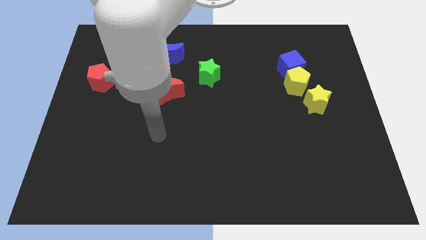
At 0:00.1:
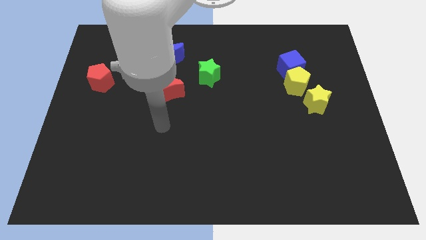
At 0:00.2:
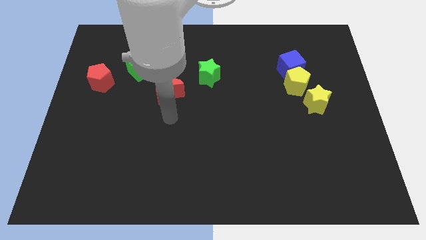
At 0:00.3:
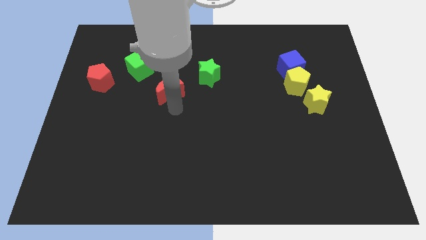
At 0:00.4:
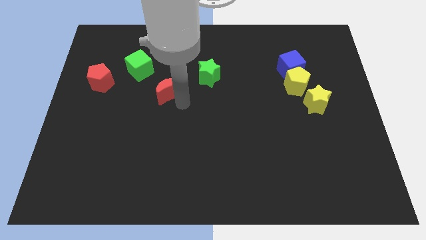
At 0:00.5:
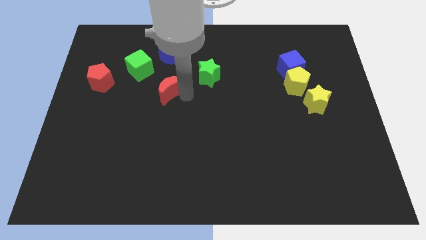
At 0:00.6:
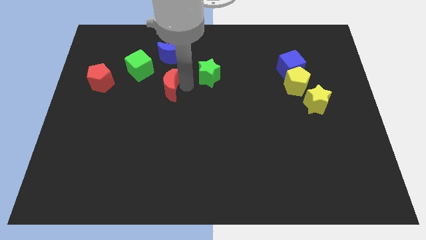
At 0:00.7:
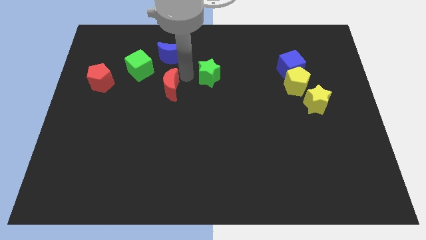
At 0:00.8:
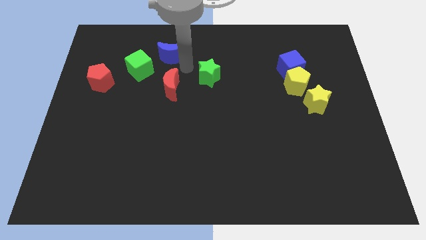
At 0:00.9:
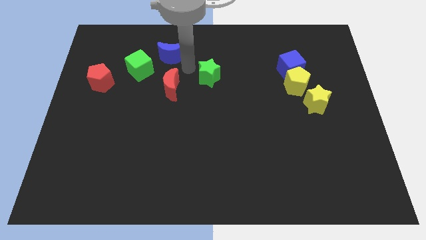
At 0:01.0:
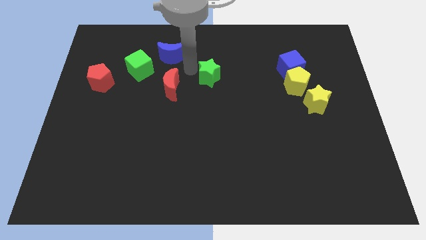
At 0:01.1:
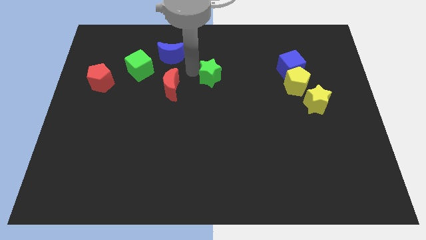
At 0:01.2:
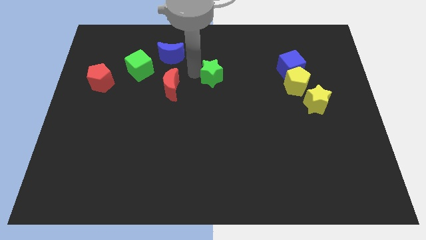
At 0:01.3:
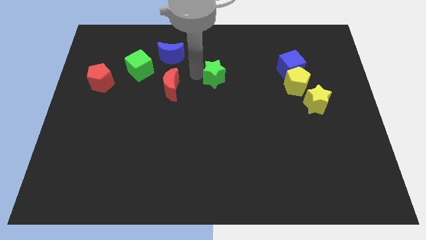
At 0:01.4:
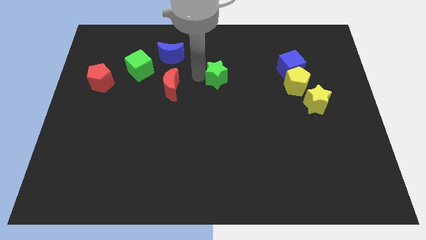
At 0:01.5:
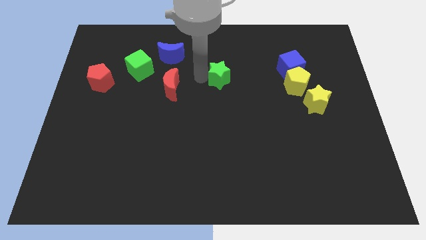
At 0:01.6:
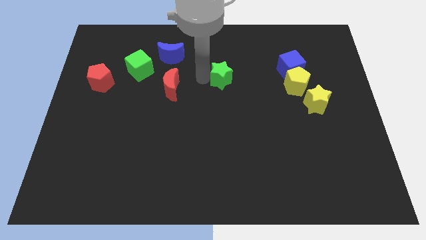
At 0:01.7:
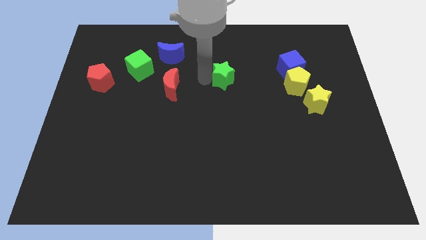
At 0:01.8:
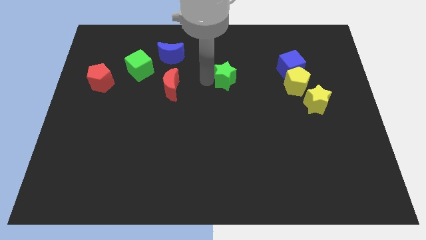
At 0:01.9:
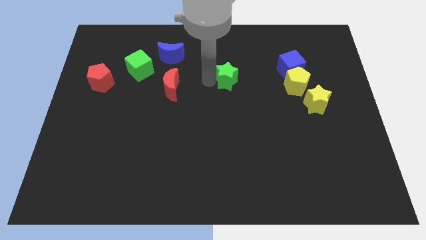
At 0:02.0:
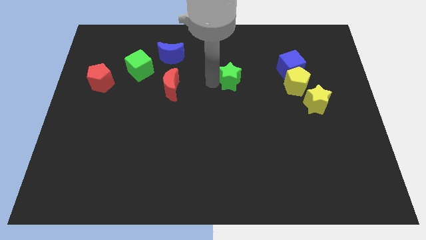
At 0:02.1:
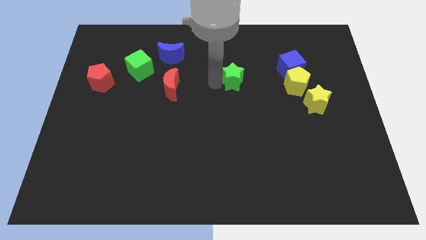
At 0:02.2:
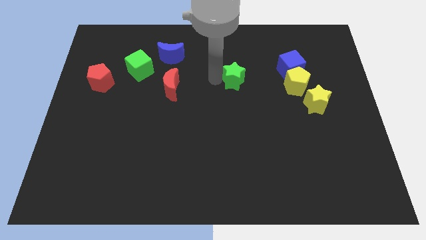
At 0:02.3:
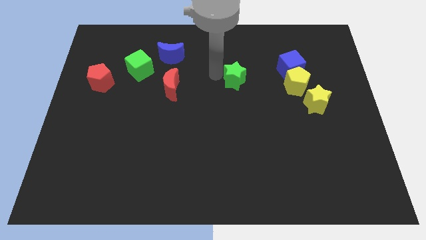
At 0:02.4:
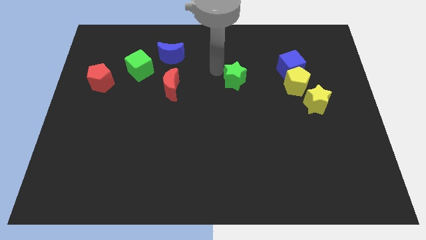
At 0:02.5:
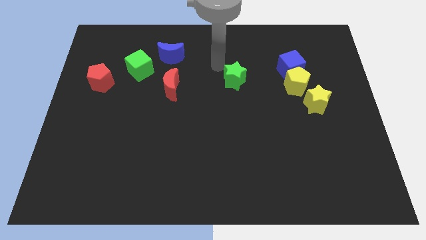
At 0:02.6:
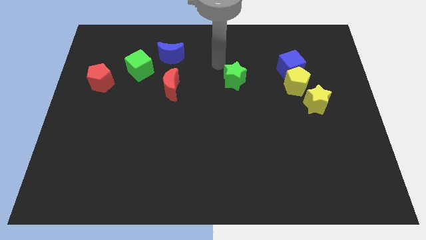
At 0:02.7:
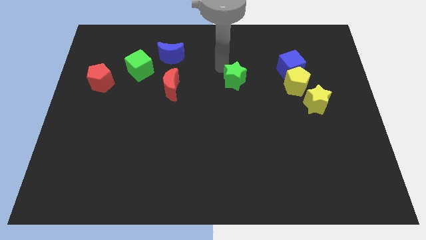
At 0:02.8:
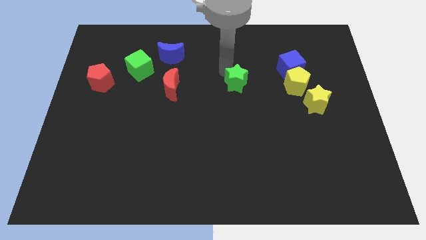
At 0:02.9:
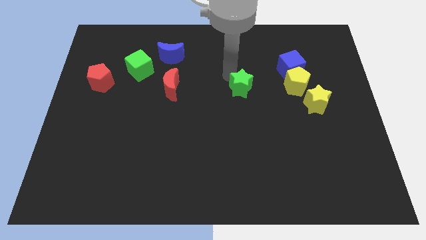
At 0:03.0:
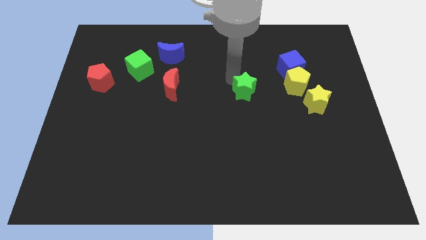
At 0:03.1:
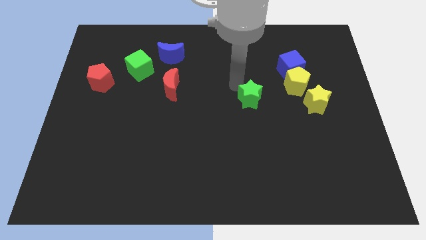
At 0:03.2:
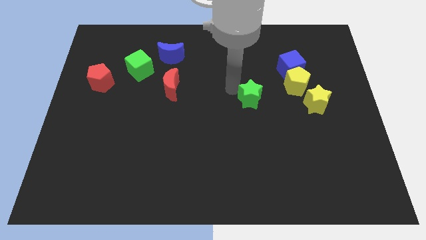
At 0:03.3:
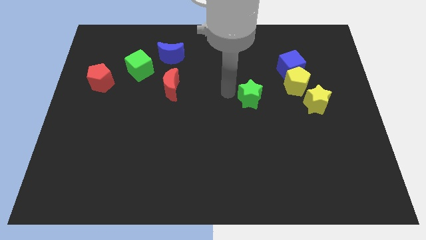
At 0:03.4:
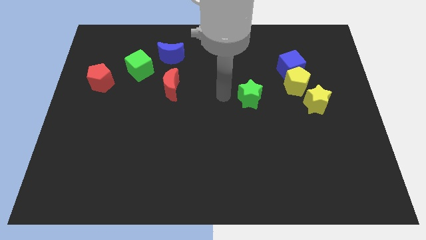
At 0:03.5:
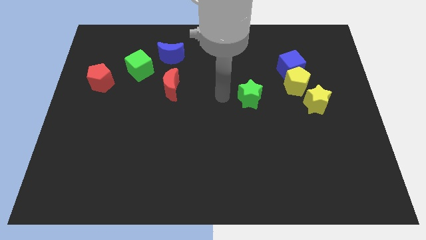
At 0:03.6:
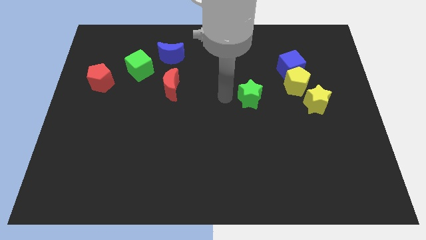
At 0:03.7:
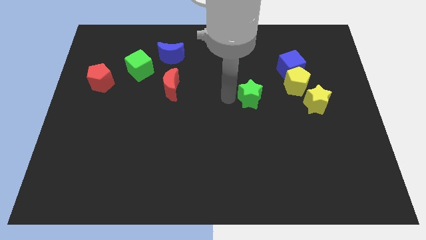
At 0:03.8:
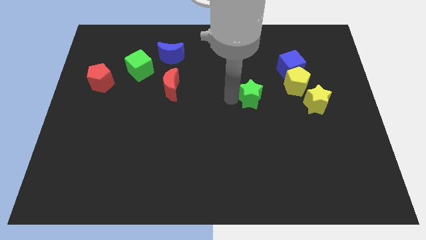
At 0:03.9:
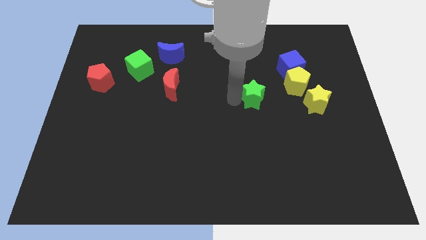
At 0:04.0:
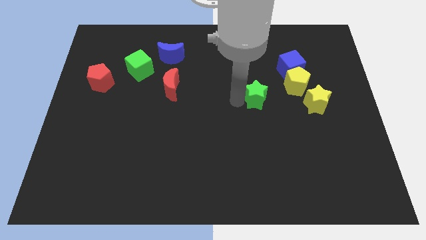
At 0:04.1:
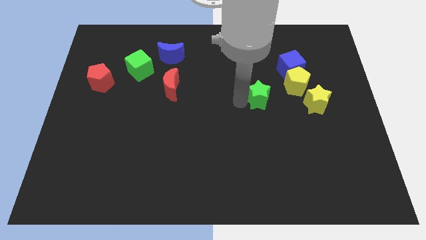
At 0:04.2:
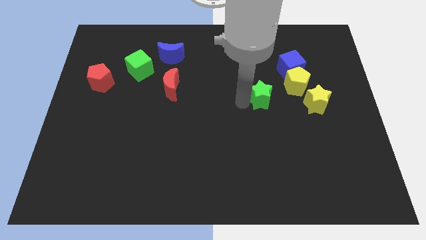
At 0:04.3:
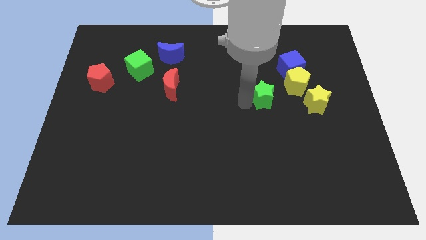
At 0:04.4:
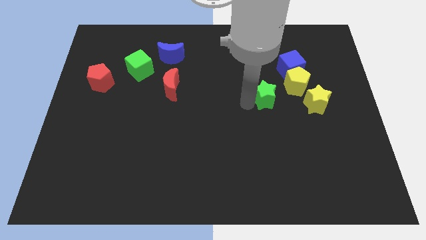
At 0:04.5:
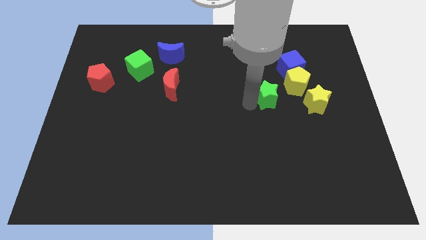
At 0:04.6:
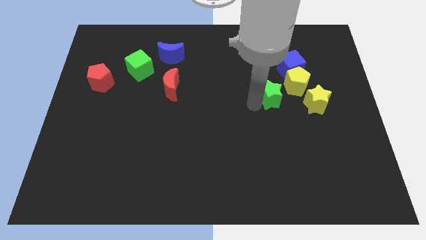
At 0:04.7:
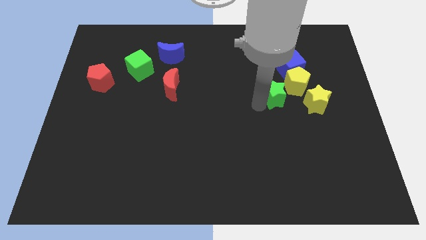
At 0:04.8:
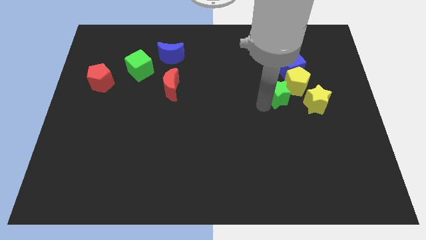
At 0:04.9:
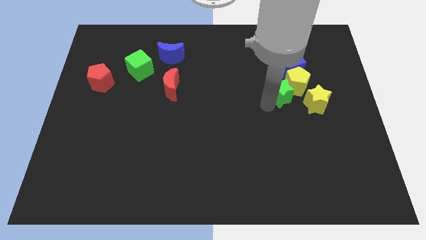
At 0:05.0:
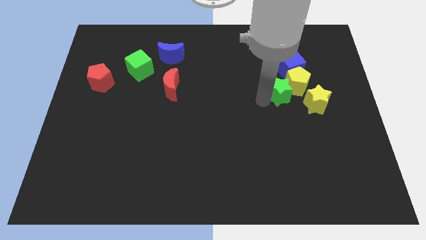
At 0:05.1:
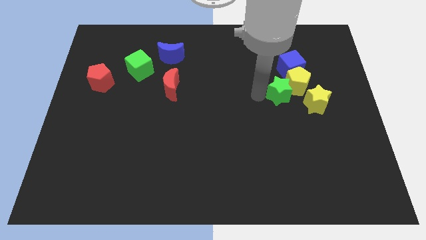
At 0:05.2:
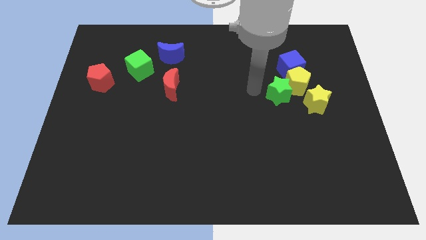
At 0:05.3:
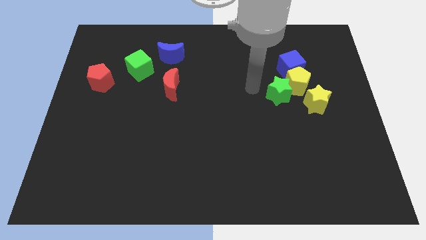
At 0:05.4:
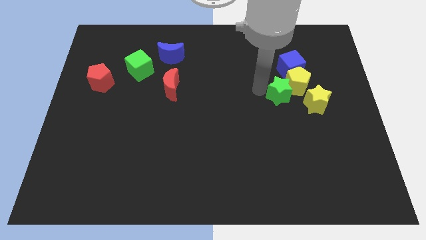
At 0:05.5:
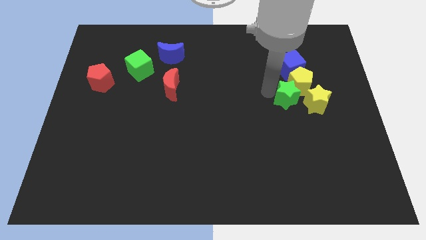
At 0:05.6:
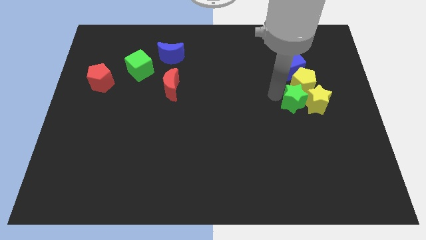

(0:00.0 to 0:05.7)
slide the green star close to the yellow star

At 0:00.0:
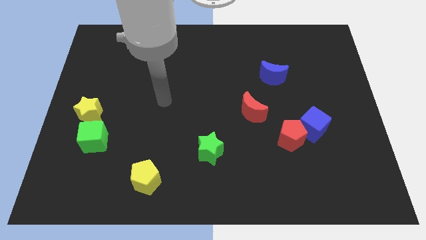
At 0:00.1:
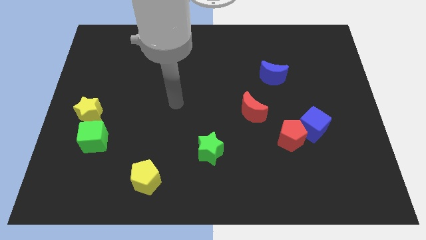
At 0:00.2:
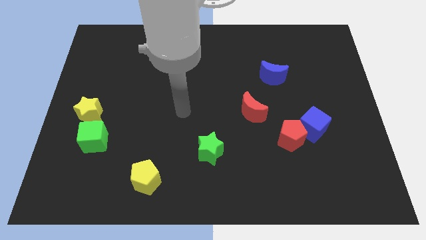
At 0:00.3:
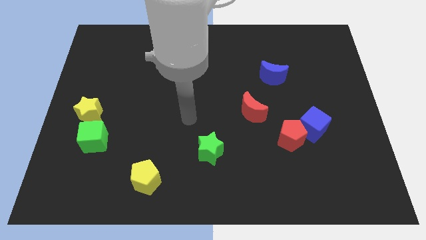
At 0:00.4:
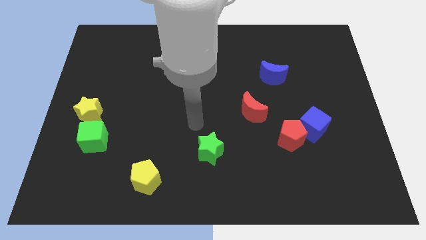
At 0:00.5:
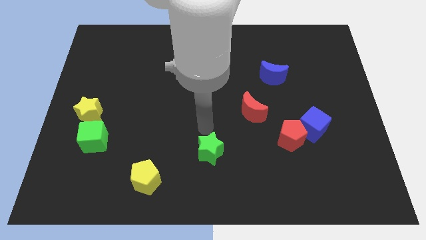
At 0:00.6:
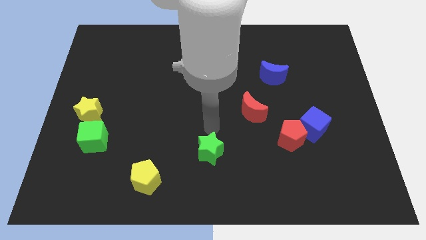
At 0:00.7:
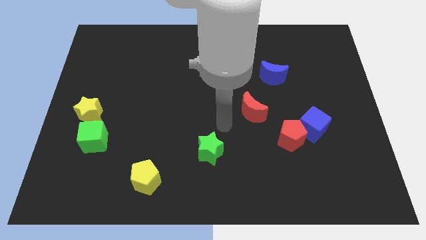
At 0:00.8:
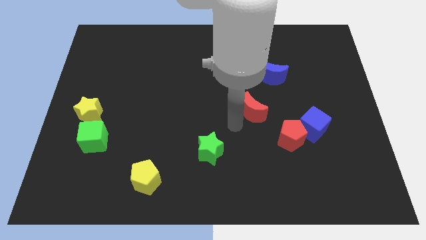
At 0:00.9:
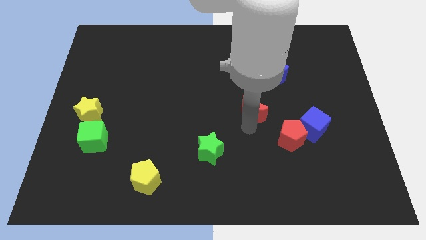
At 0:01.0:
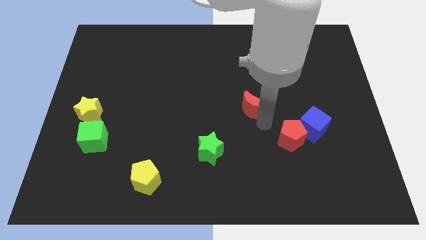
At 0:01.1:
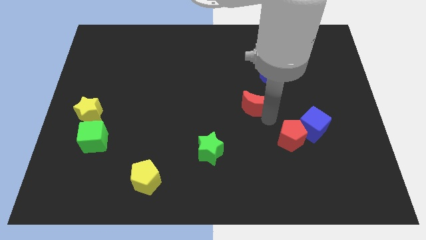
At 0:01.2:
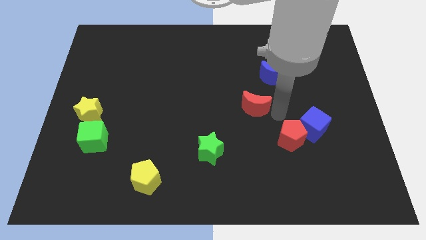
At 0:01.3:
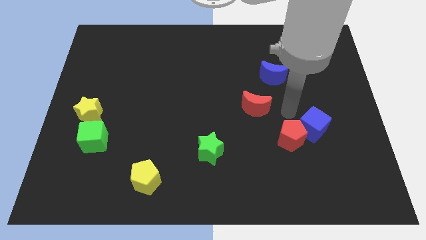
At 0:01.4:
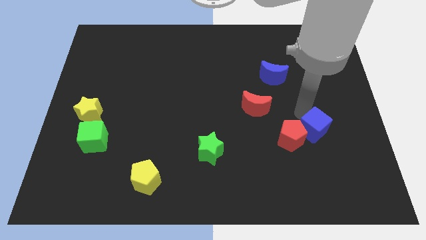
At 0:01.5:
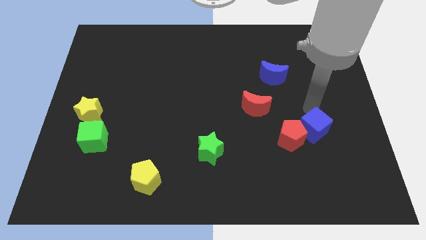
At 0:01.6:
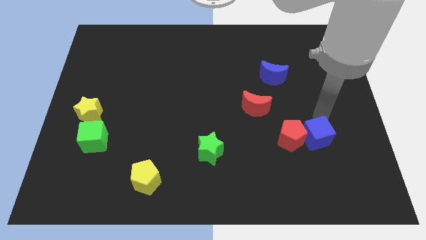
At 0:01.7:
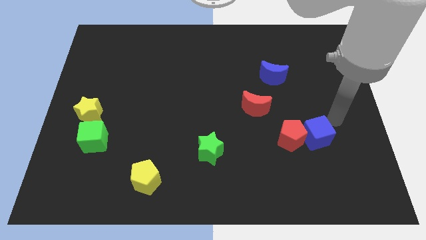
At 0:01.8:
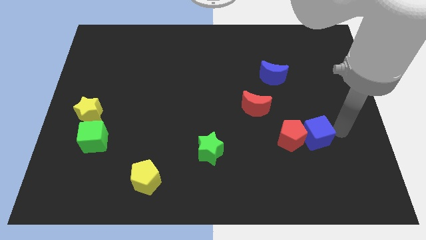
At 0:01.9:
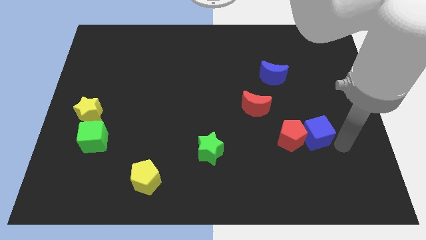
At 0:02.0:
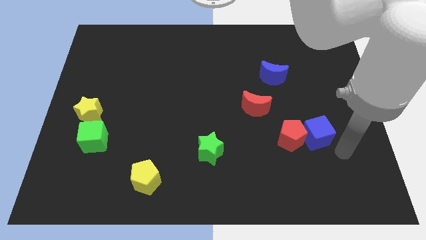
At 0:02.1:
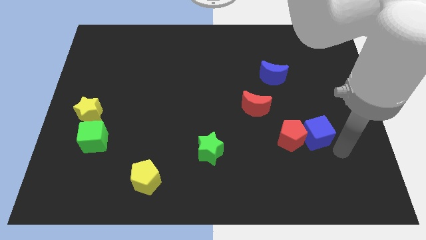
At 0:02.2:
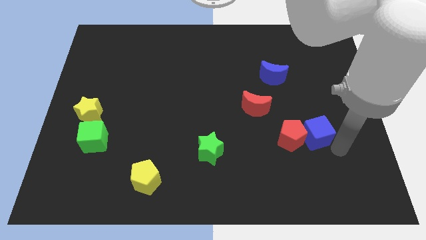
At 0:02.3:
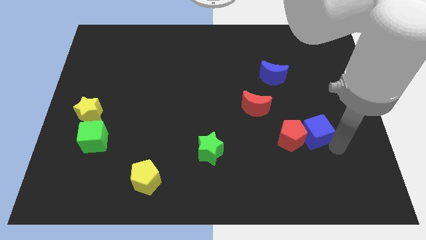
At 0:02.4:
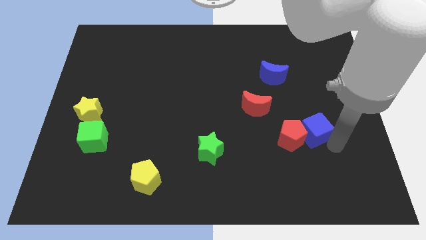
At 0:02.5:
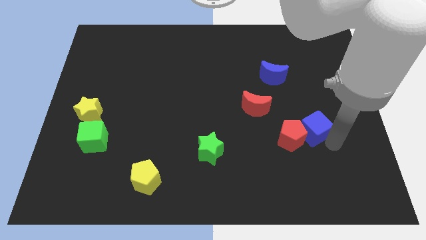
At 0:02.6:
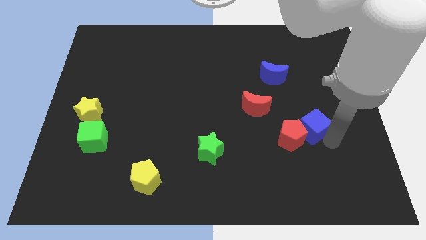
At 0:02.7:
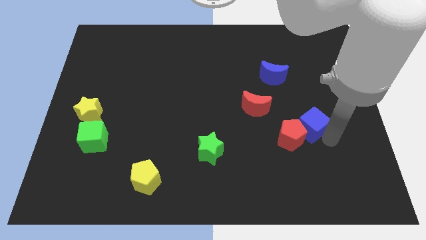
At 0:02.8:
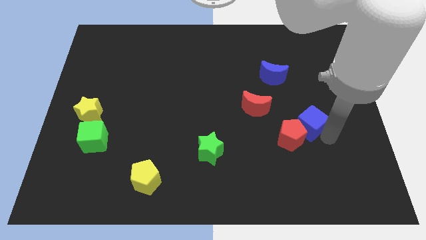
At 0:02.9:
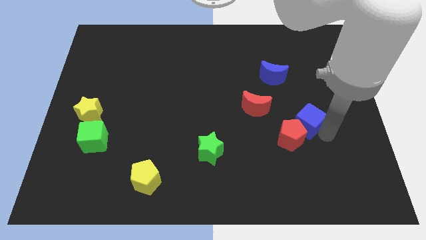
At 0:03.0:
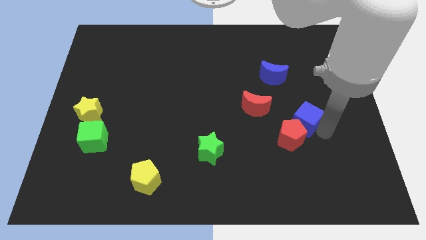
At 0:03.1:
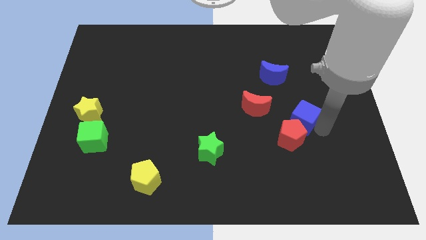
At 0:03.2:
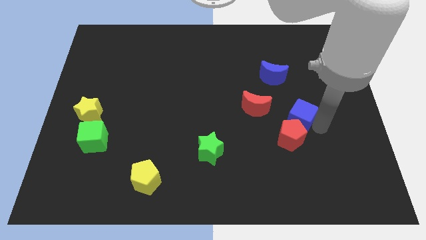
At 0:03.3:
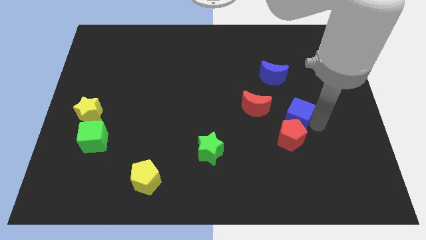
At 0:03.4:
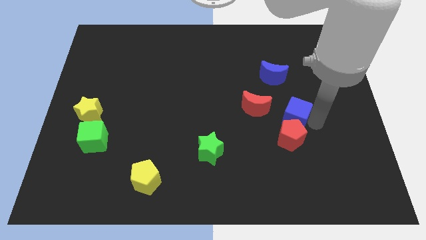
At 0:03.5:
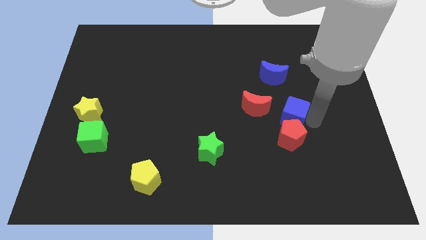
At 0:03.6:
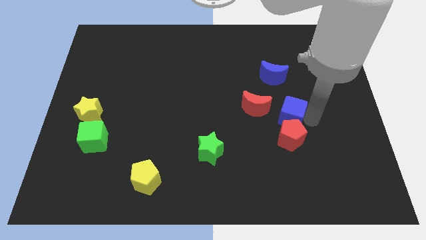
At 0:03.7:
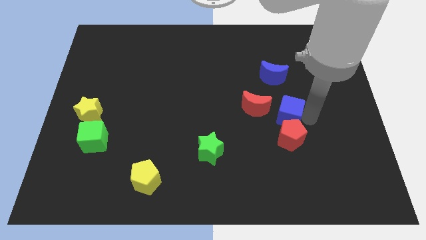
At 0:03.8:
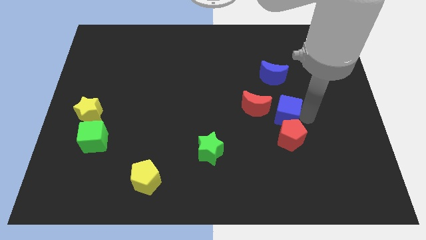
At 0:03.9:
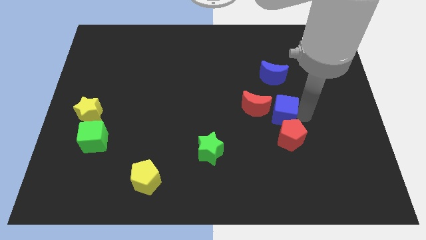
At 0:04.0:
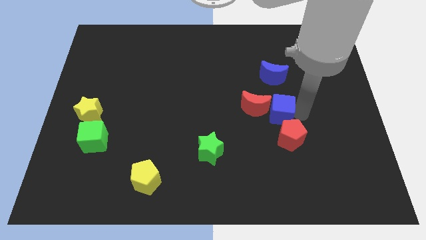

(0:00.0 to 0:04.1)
put the blue cube next to the red moon
